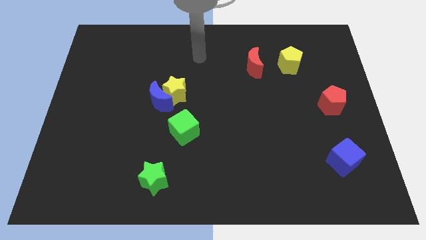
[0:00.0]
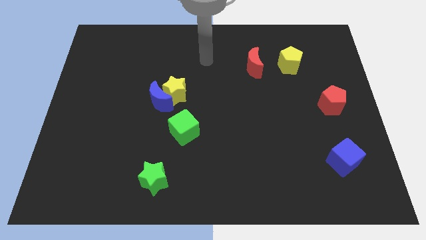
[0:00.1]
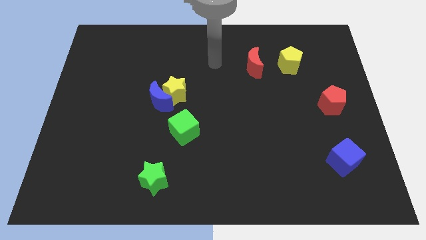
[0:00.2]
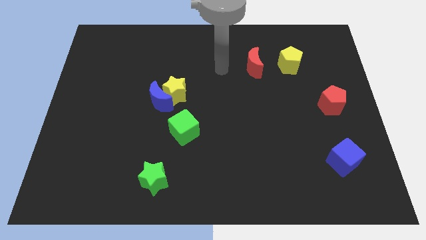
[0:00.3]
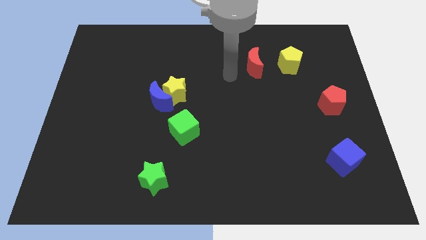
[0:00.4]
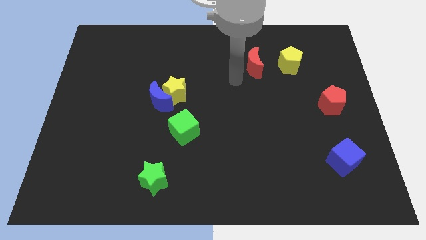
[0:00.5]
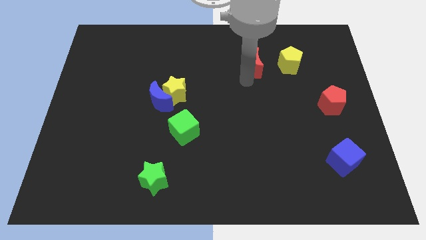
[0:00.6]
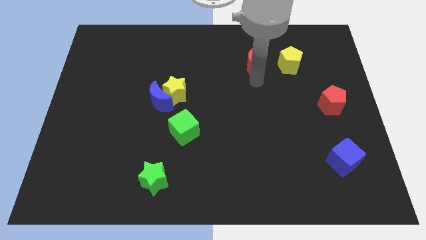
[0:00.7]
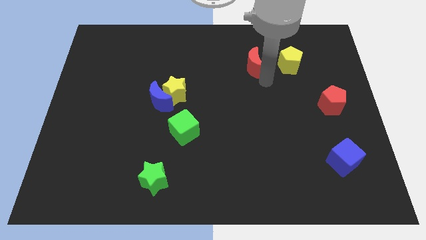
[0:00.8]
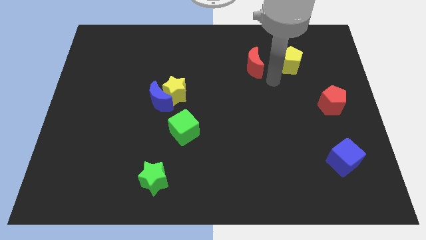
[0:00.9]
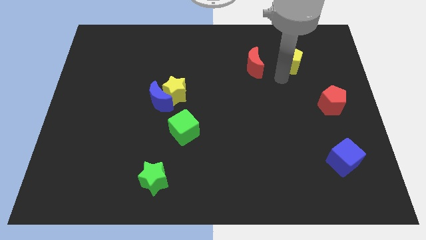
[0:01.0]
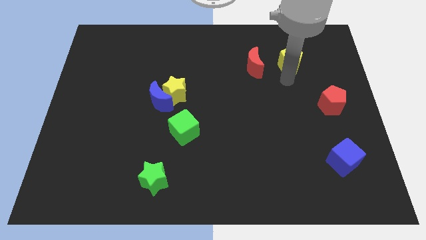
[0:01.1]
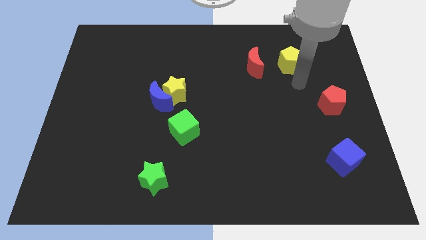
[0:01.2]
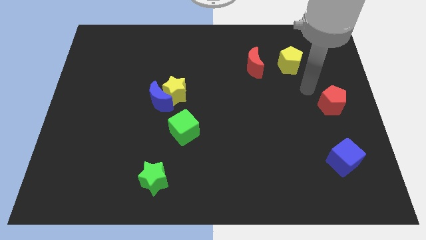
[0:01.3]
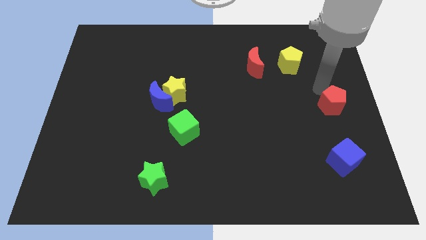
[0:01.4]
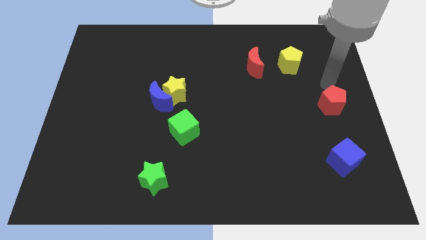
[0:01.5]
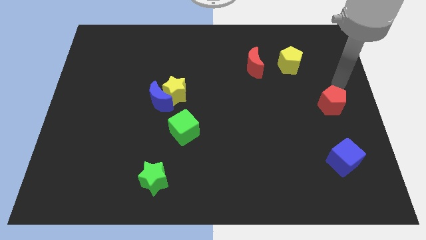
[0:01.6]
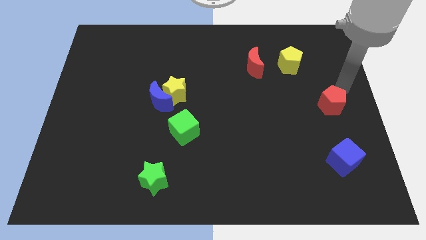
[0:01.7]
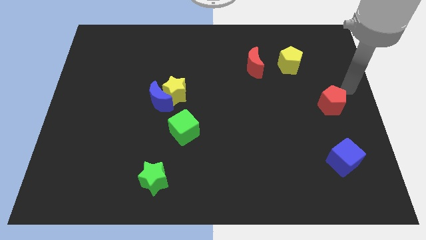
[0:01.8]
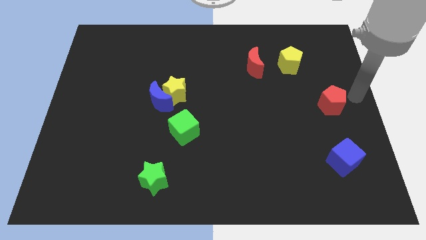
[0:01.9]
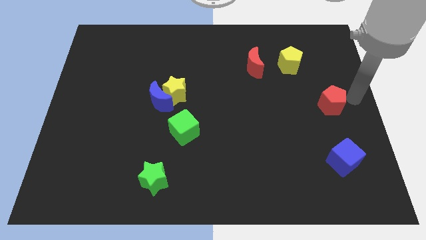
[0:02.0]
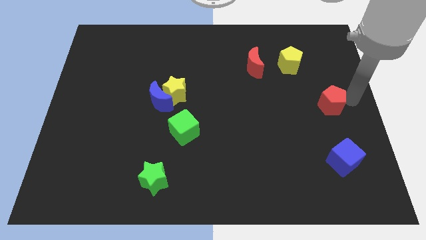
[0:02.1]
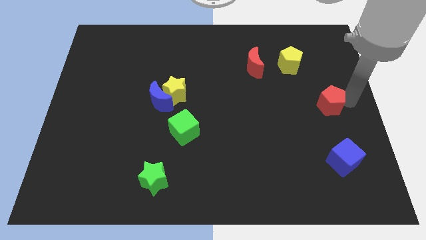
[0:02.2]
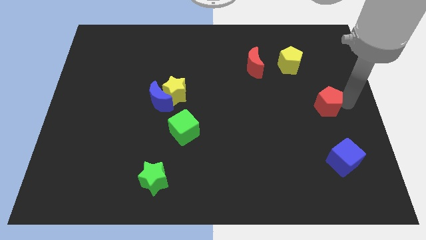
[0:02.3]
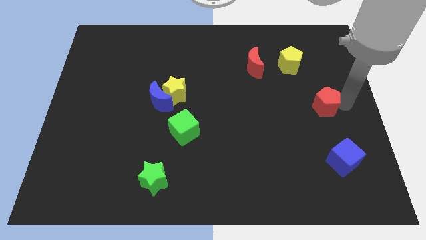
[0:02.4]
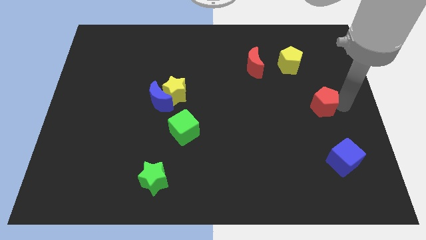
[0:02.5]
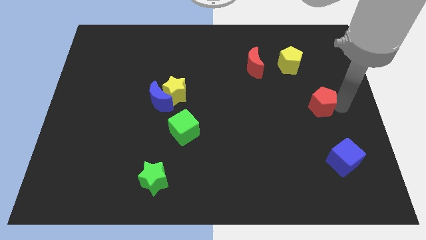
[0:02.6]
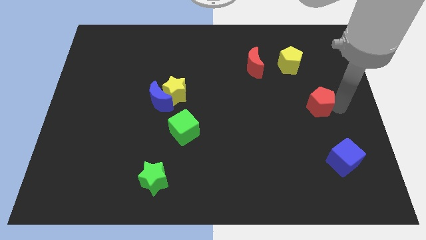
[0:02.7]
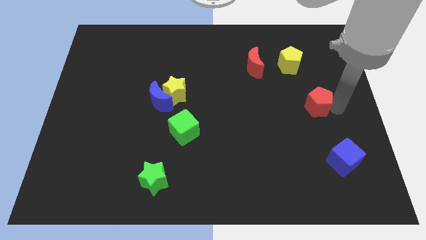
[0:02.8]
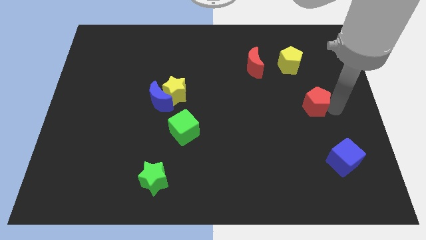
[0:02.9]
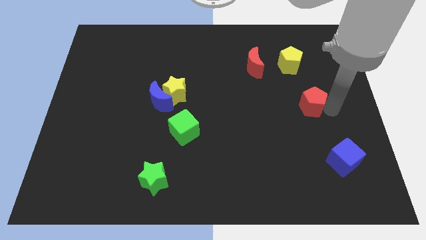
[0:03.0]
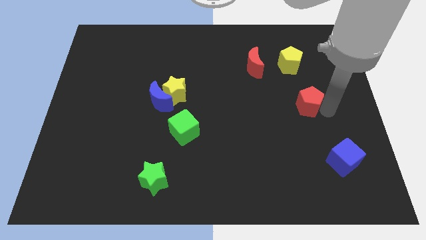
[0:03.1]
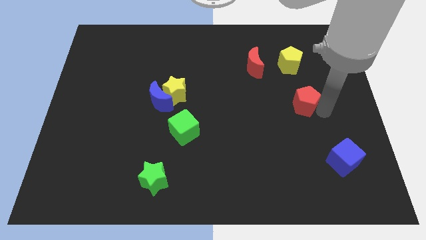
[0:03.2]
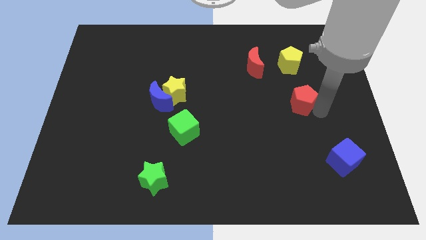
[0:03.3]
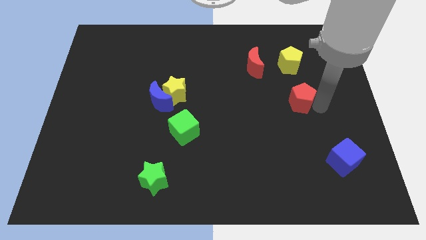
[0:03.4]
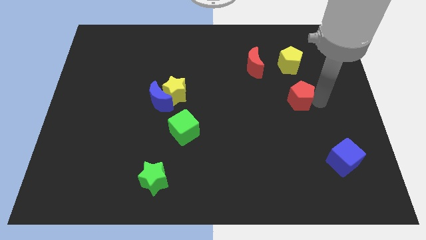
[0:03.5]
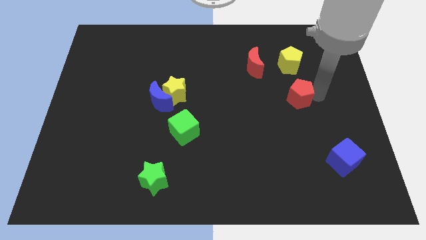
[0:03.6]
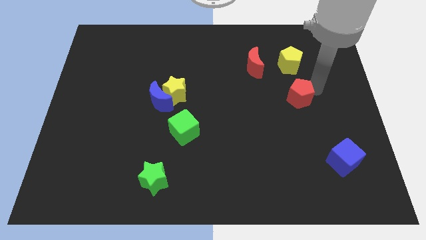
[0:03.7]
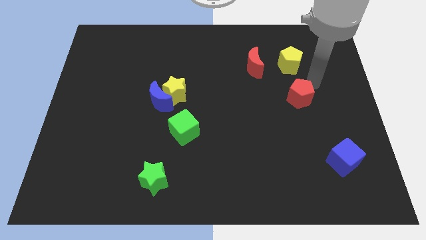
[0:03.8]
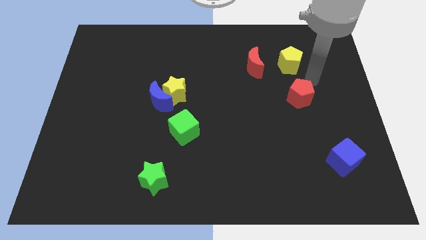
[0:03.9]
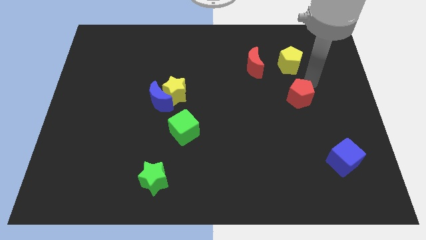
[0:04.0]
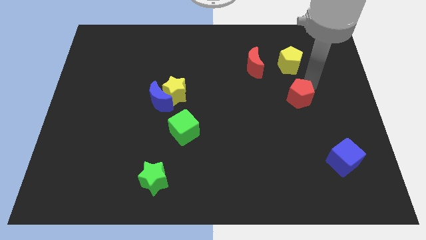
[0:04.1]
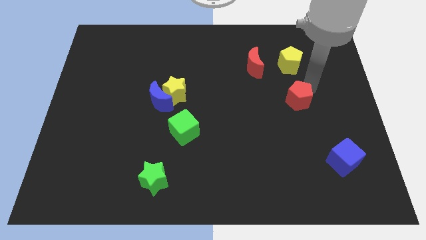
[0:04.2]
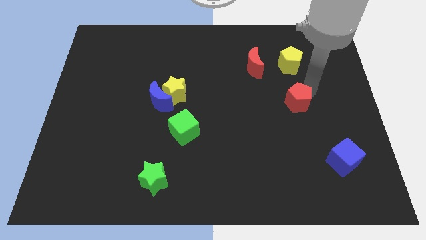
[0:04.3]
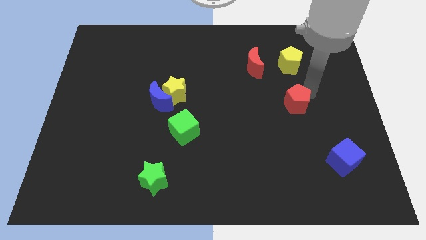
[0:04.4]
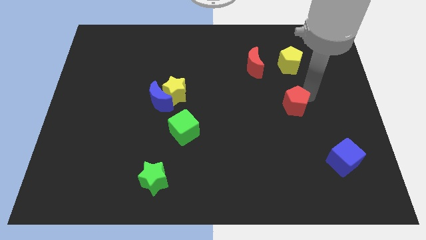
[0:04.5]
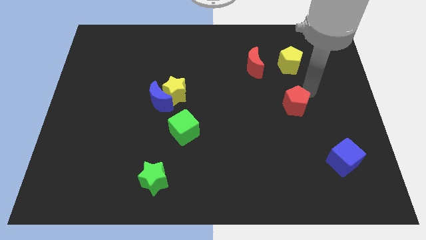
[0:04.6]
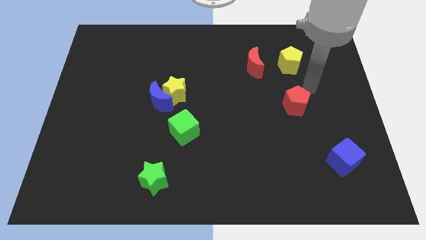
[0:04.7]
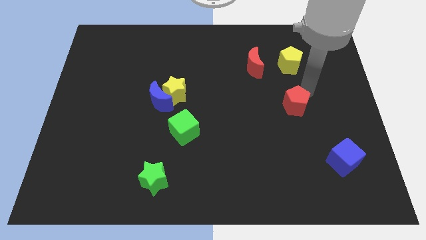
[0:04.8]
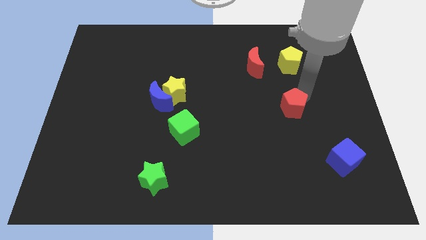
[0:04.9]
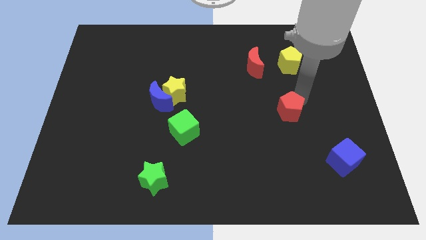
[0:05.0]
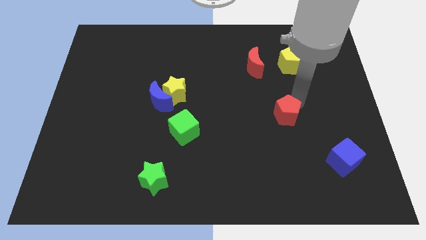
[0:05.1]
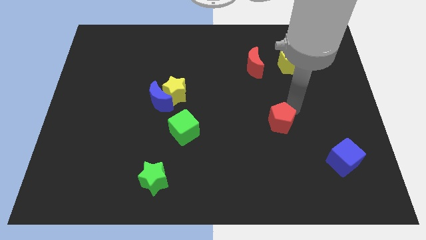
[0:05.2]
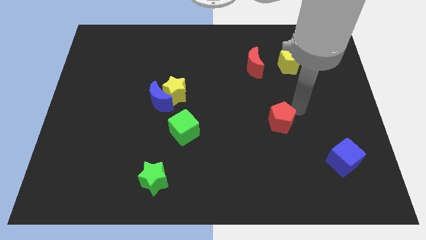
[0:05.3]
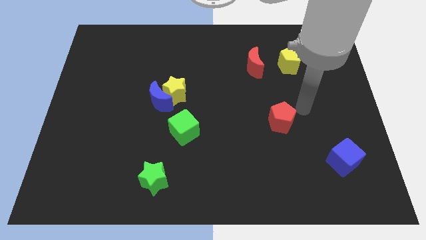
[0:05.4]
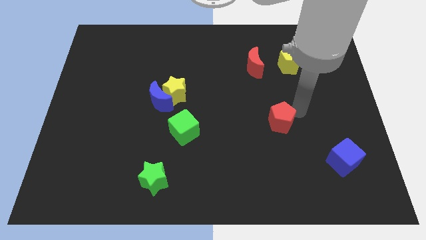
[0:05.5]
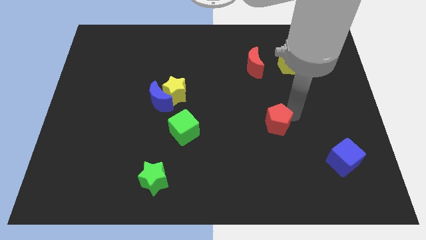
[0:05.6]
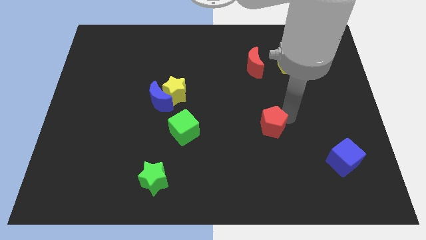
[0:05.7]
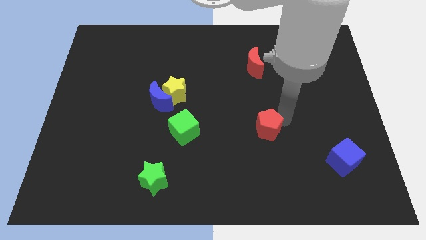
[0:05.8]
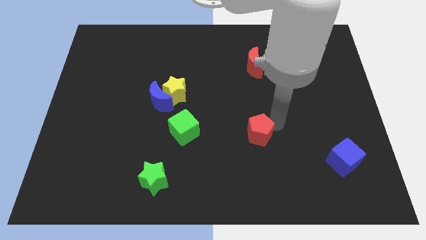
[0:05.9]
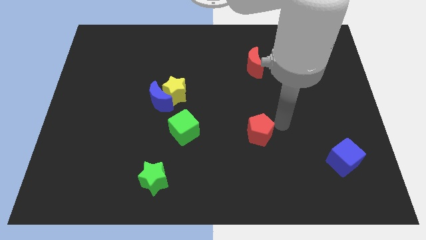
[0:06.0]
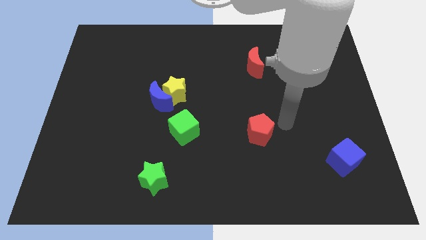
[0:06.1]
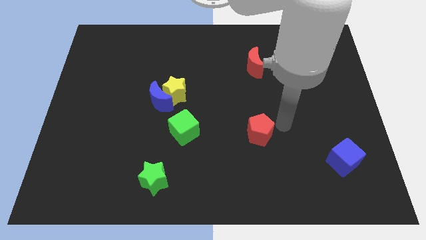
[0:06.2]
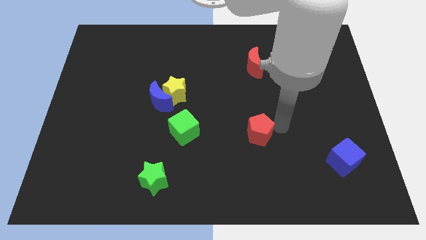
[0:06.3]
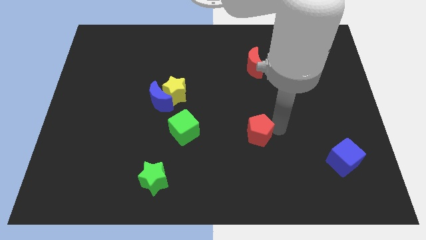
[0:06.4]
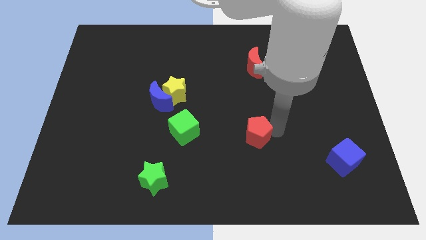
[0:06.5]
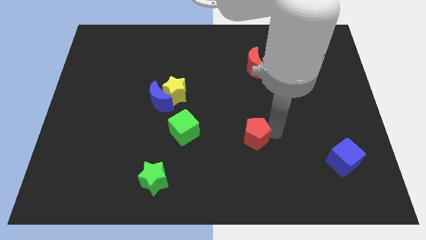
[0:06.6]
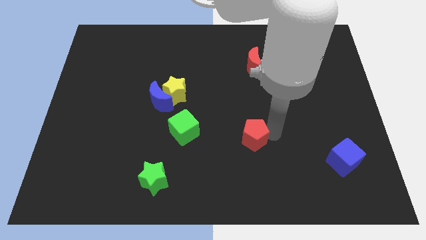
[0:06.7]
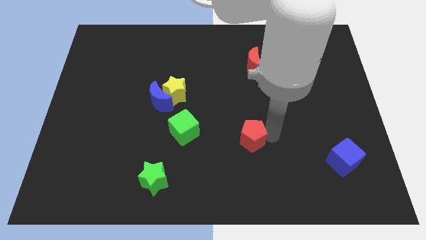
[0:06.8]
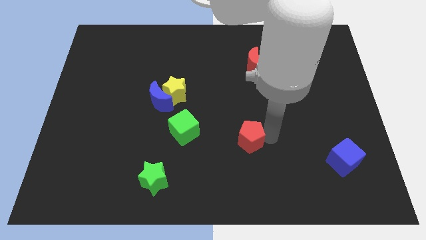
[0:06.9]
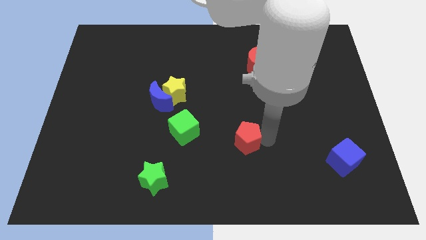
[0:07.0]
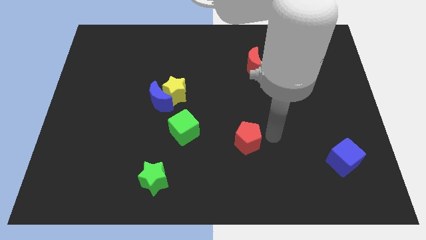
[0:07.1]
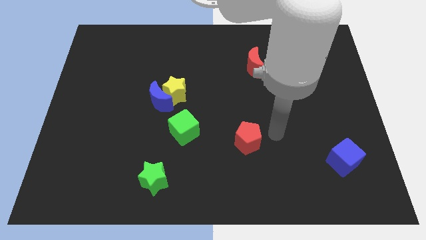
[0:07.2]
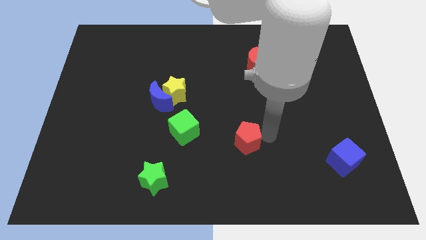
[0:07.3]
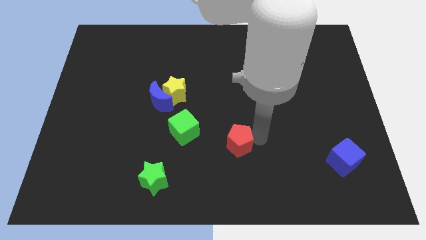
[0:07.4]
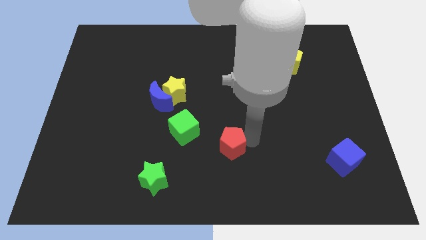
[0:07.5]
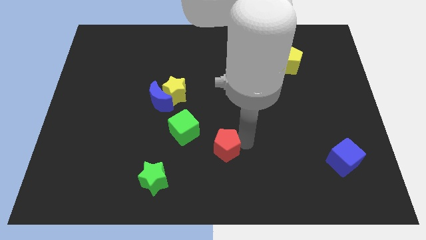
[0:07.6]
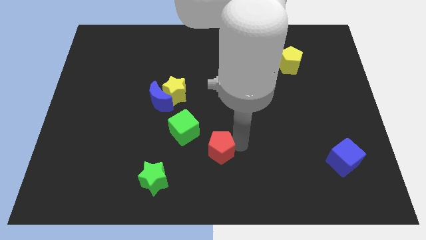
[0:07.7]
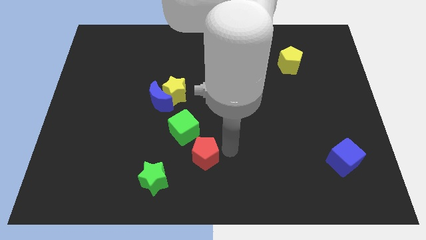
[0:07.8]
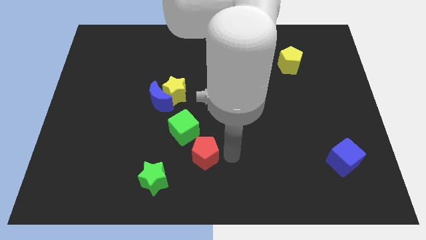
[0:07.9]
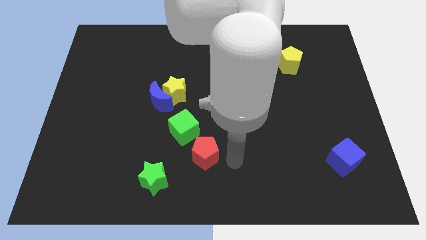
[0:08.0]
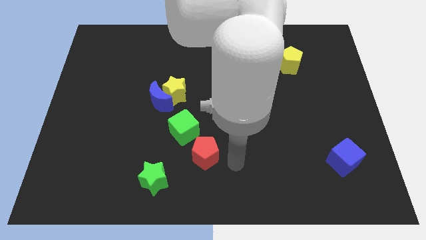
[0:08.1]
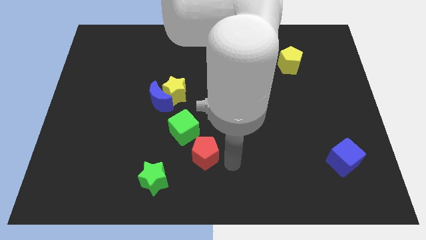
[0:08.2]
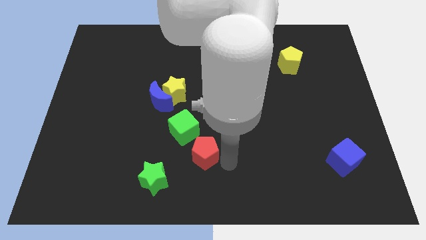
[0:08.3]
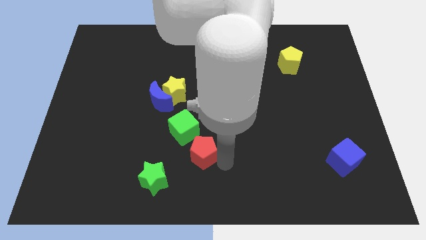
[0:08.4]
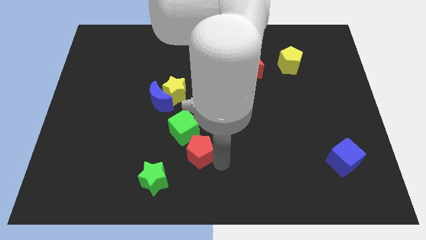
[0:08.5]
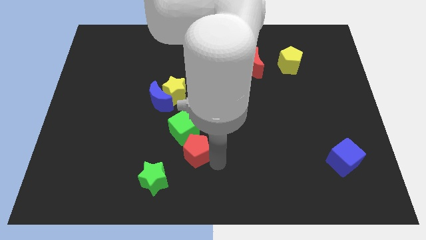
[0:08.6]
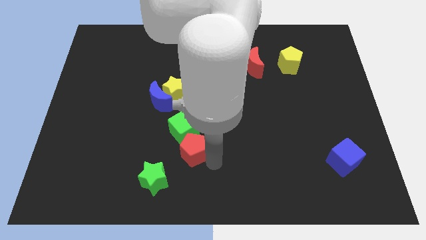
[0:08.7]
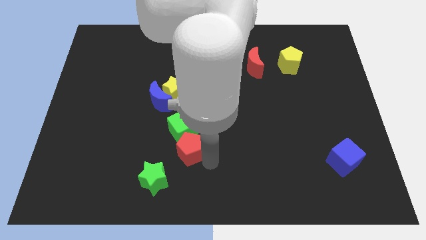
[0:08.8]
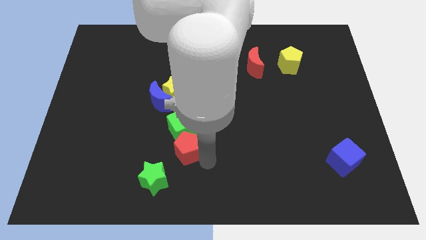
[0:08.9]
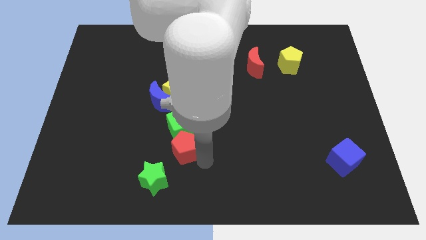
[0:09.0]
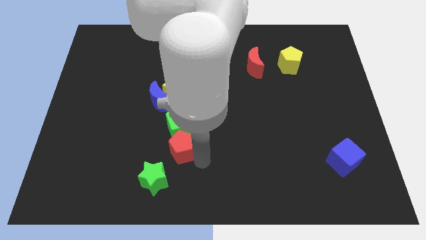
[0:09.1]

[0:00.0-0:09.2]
move the red pentagon to the bottom side of the yellow star
